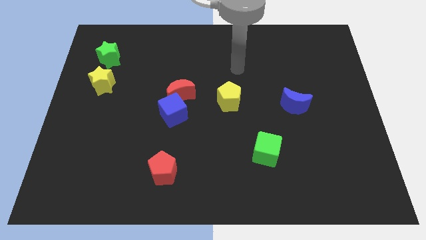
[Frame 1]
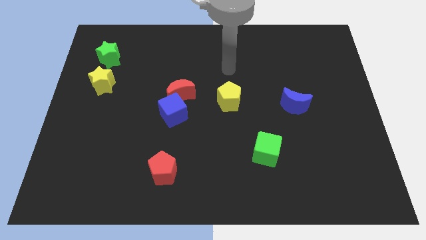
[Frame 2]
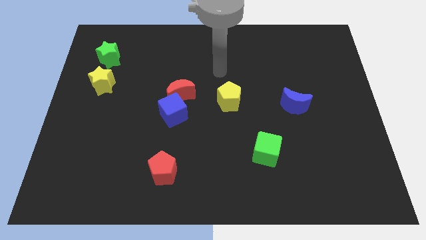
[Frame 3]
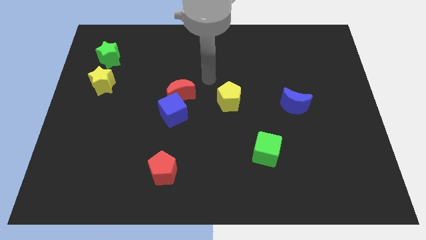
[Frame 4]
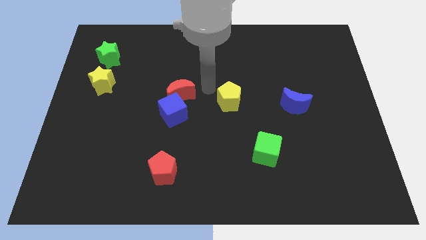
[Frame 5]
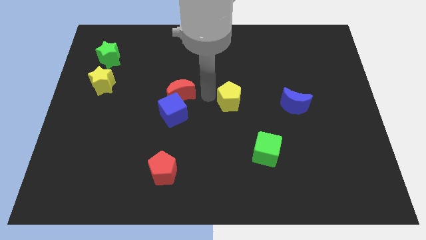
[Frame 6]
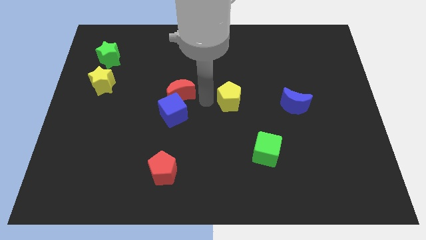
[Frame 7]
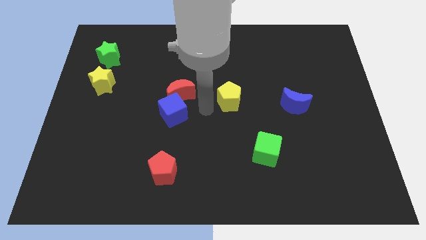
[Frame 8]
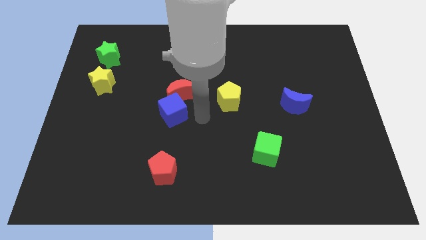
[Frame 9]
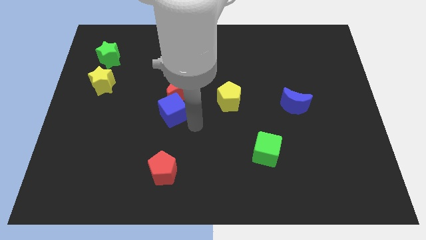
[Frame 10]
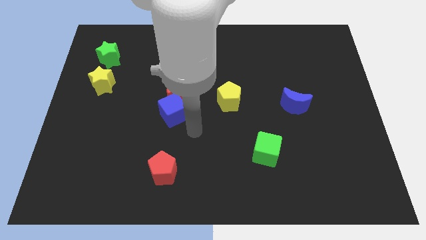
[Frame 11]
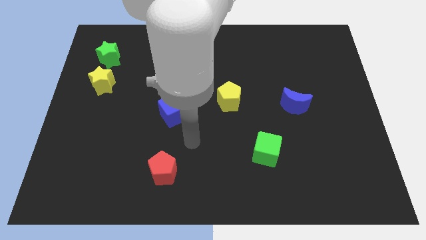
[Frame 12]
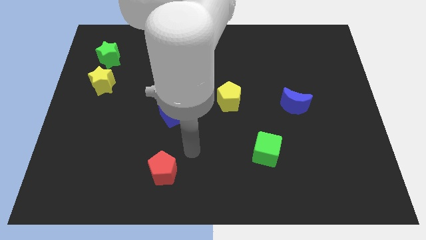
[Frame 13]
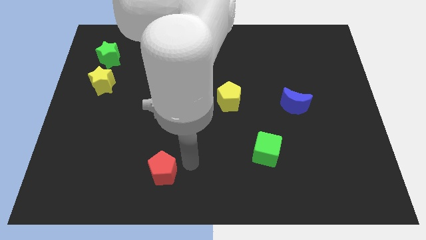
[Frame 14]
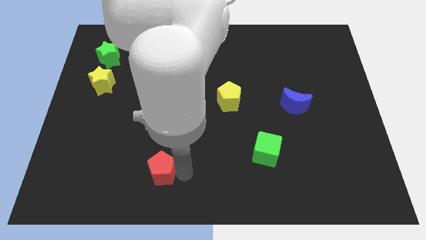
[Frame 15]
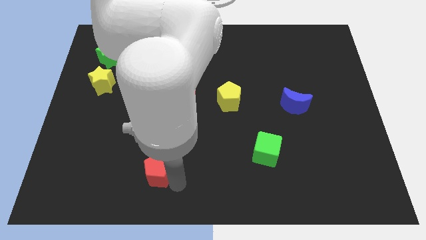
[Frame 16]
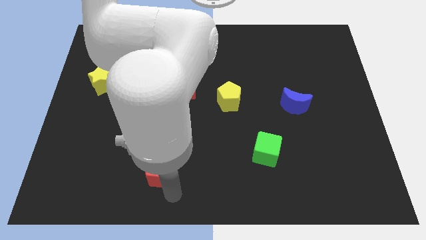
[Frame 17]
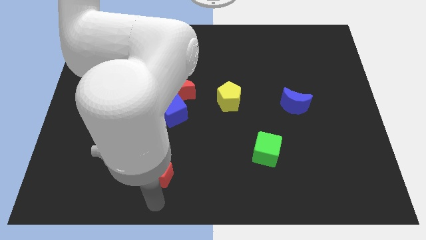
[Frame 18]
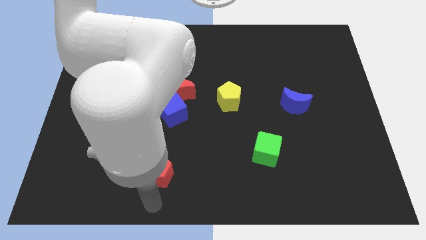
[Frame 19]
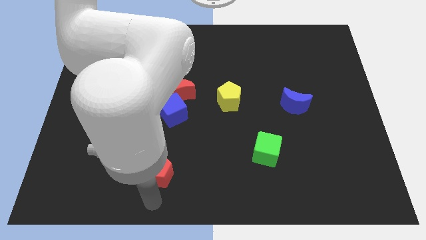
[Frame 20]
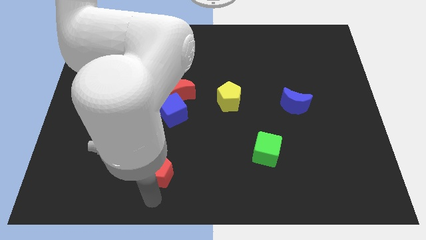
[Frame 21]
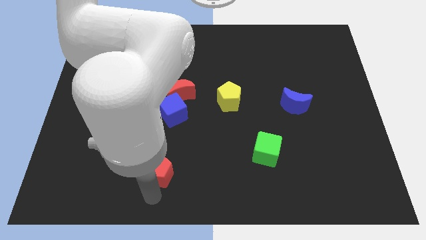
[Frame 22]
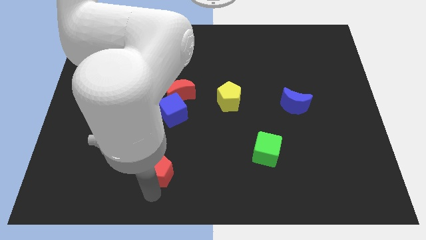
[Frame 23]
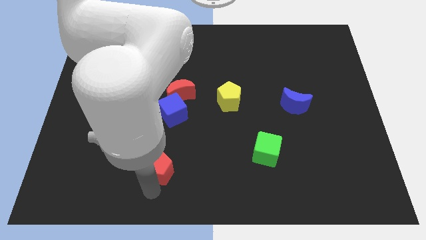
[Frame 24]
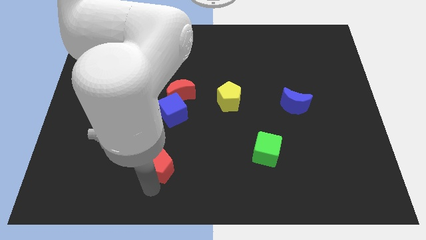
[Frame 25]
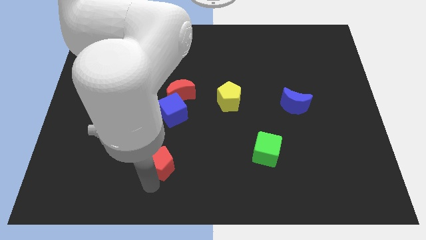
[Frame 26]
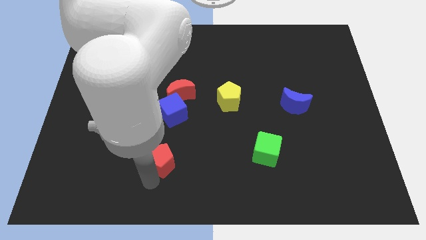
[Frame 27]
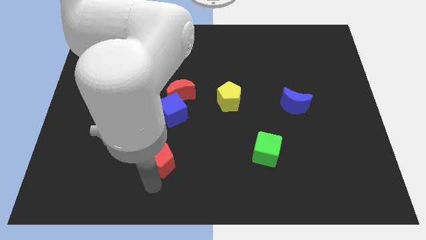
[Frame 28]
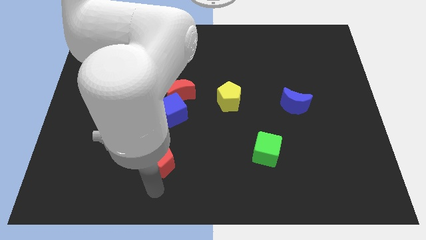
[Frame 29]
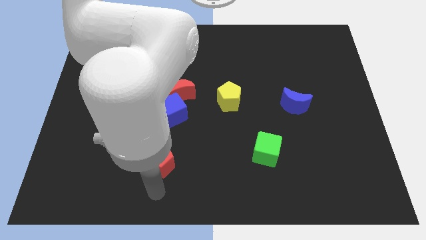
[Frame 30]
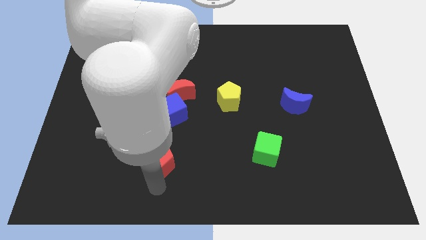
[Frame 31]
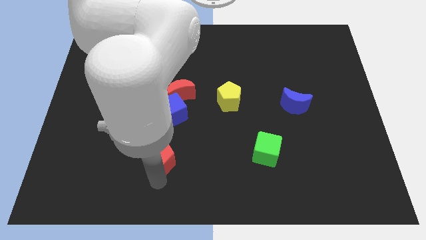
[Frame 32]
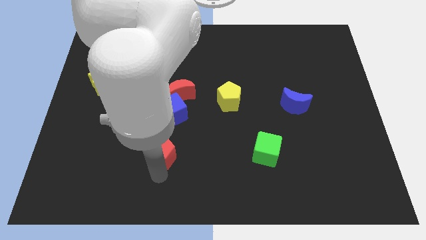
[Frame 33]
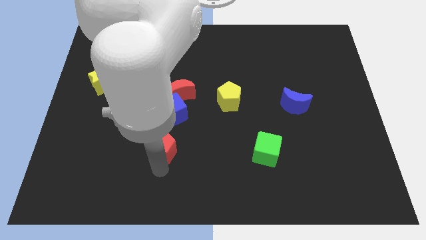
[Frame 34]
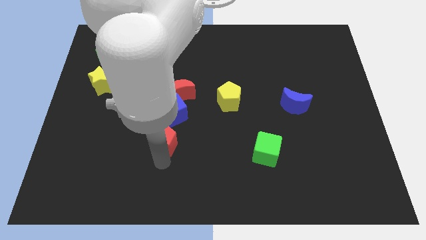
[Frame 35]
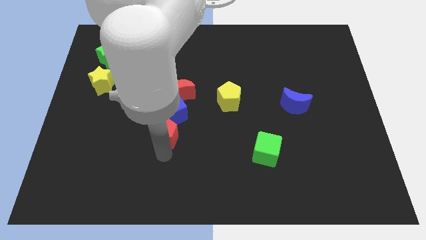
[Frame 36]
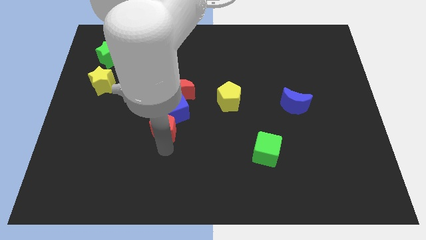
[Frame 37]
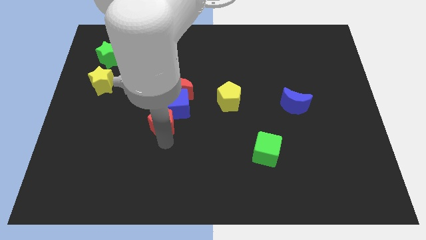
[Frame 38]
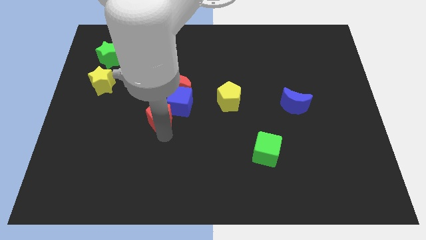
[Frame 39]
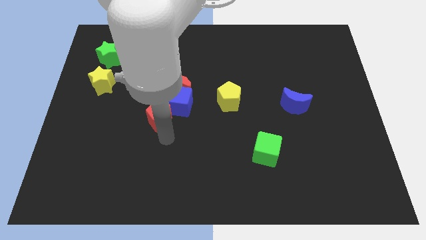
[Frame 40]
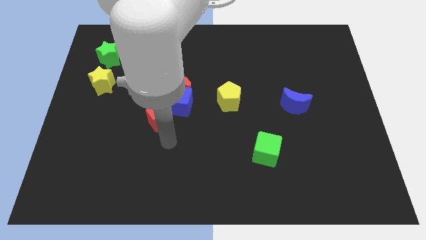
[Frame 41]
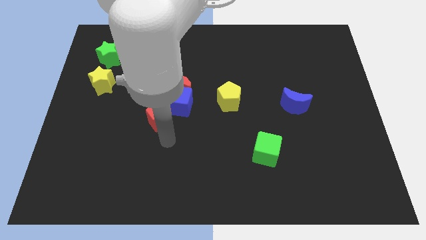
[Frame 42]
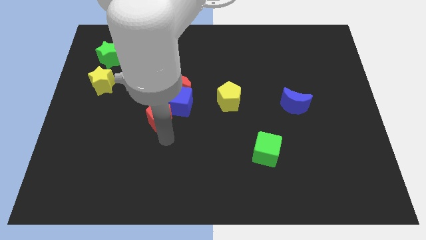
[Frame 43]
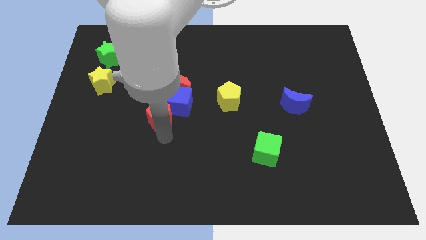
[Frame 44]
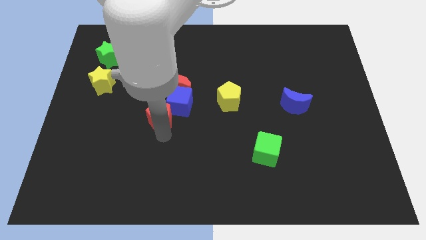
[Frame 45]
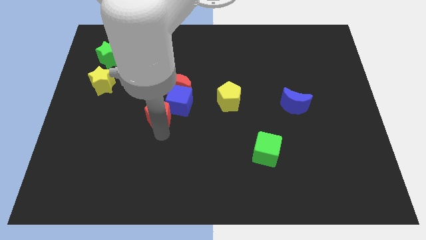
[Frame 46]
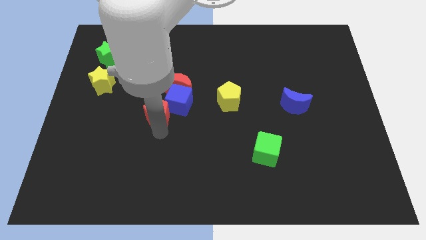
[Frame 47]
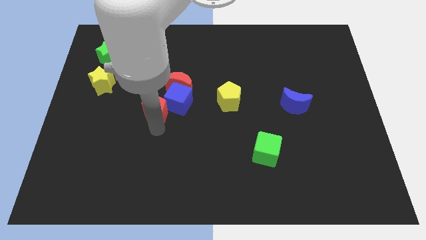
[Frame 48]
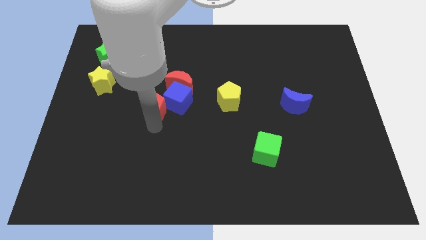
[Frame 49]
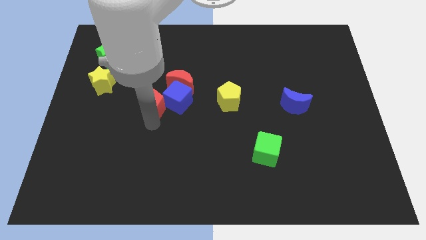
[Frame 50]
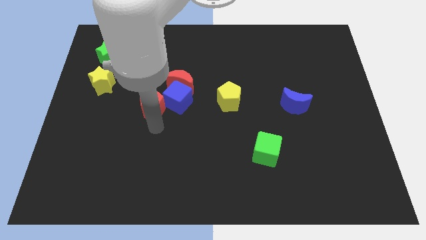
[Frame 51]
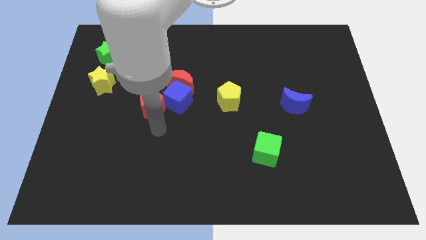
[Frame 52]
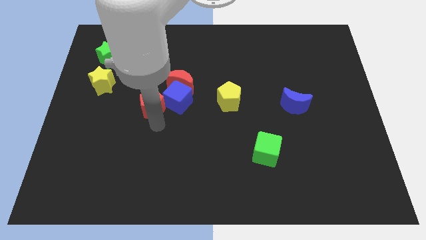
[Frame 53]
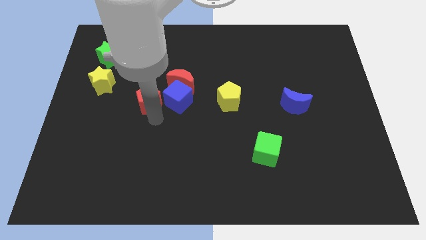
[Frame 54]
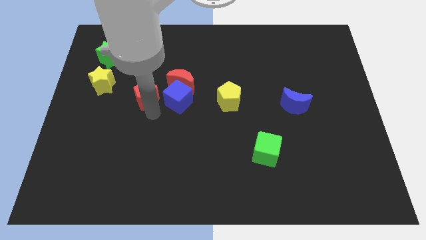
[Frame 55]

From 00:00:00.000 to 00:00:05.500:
put the red pentagon to the right side of the yellow star
